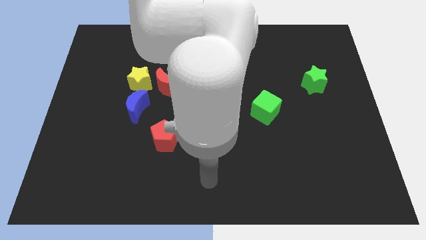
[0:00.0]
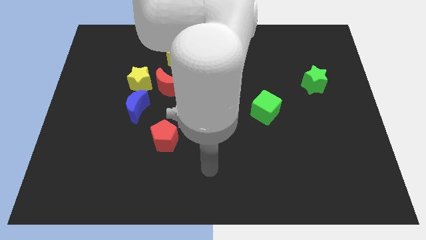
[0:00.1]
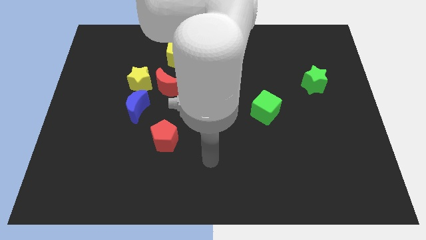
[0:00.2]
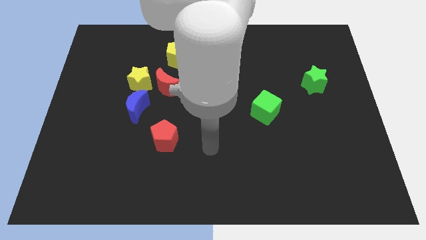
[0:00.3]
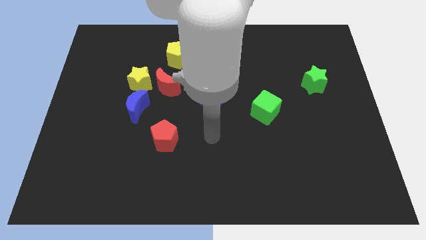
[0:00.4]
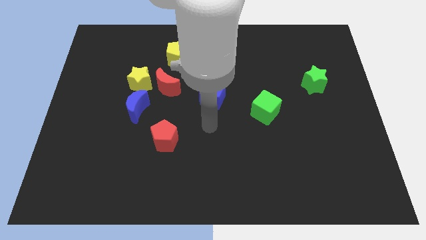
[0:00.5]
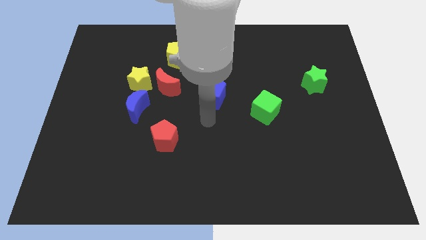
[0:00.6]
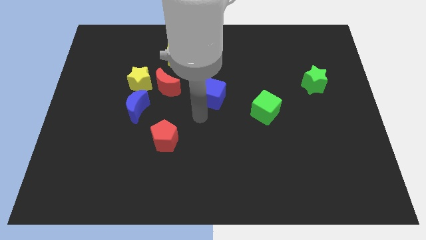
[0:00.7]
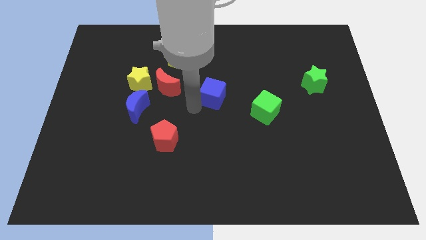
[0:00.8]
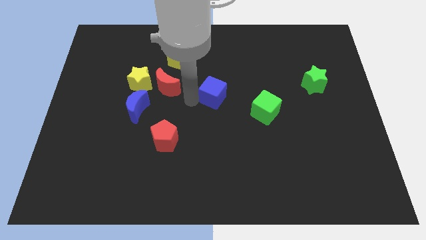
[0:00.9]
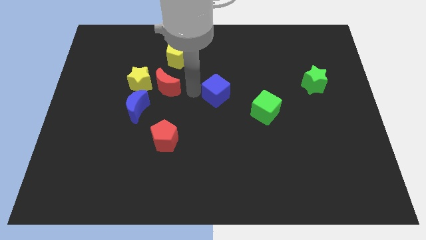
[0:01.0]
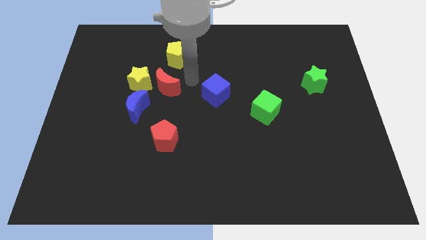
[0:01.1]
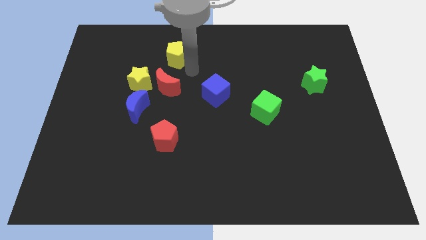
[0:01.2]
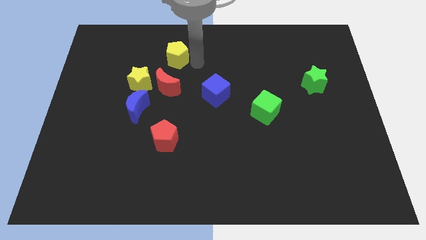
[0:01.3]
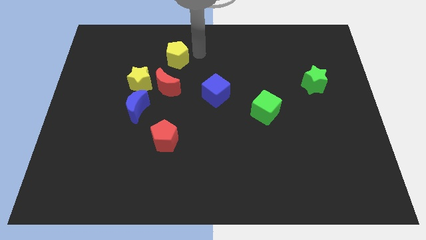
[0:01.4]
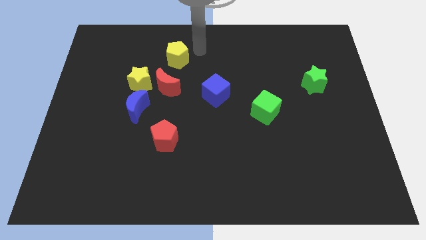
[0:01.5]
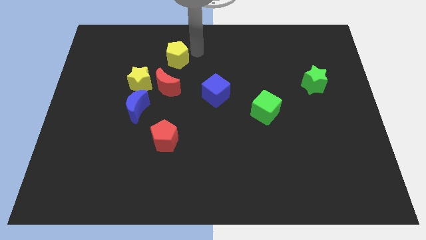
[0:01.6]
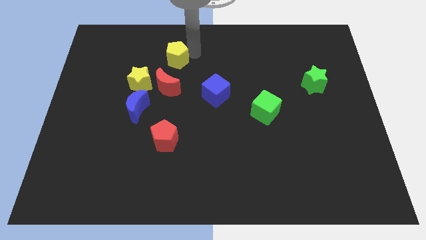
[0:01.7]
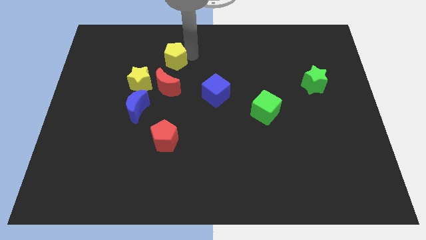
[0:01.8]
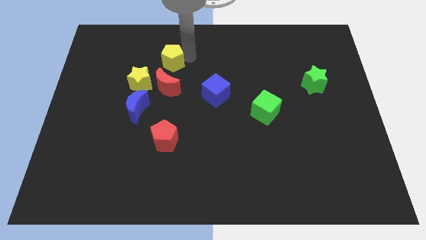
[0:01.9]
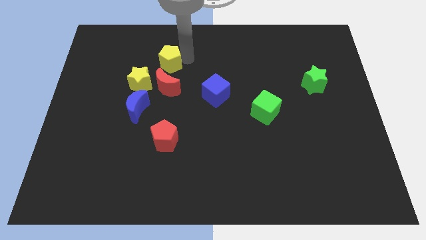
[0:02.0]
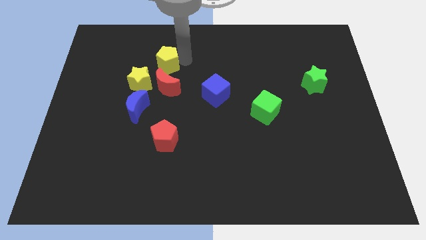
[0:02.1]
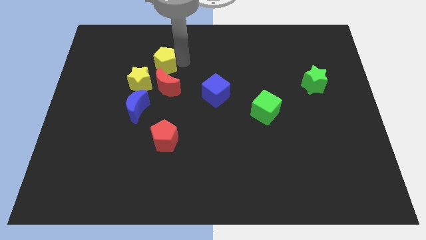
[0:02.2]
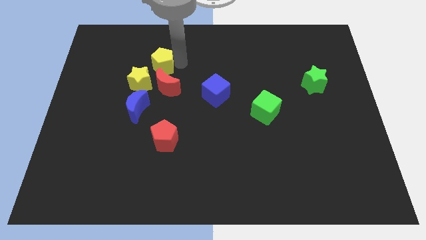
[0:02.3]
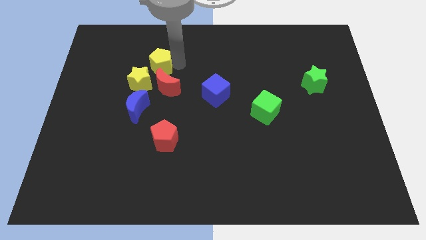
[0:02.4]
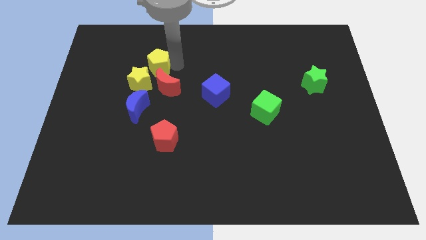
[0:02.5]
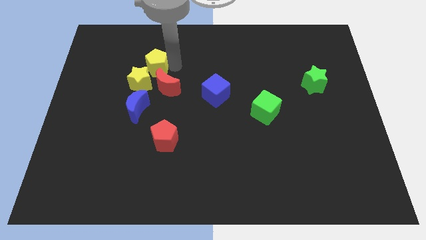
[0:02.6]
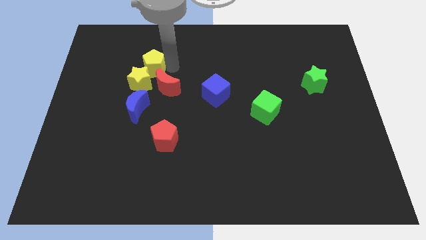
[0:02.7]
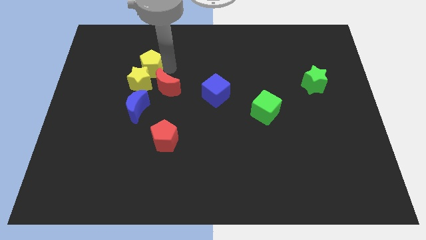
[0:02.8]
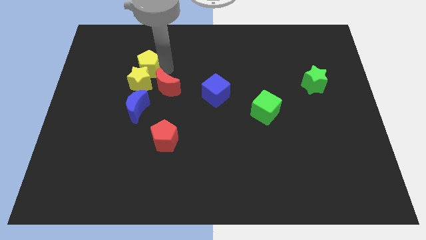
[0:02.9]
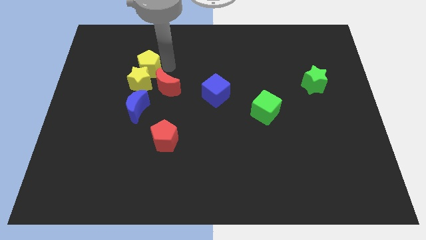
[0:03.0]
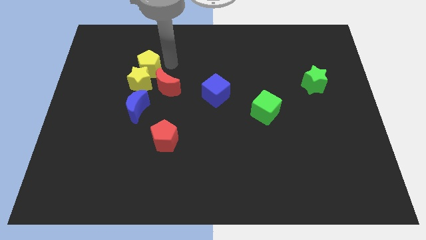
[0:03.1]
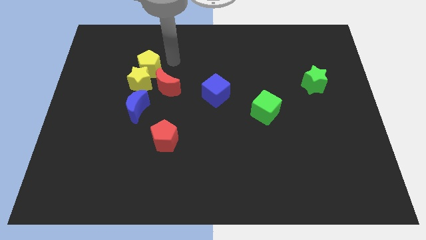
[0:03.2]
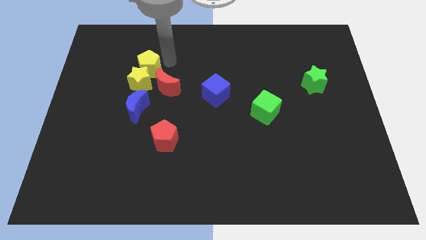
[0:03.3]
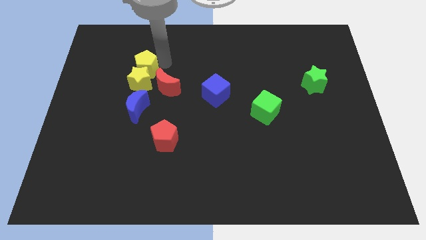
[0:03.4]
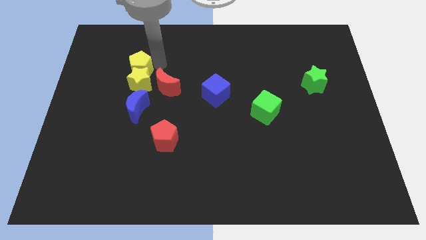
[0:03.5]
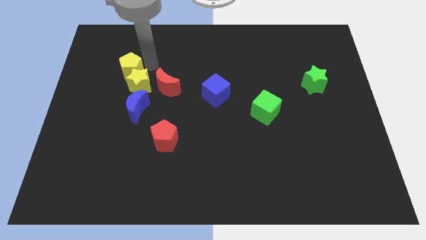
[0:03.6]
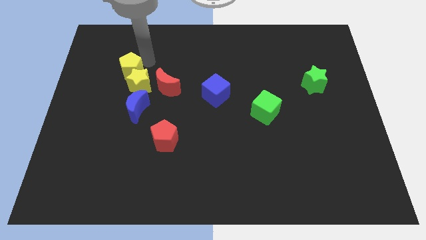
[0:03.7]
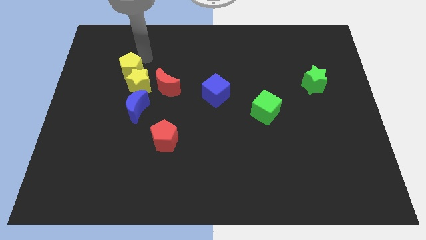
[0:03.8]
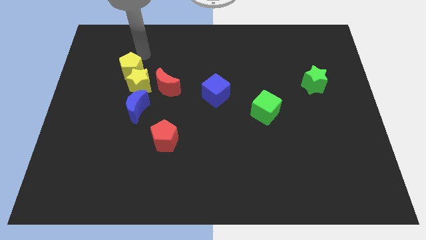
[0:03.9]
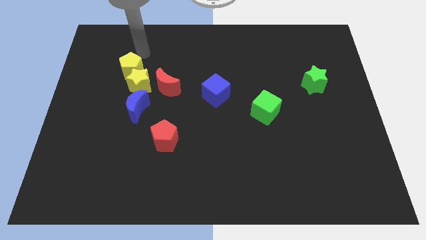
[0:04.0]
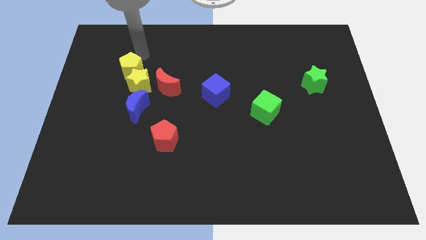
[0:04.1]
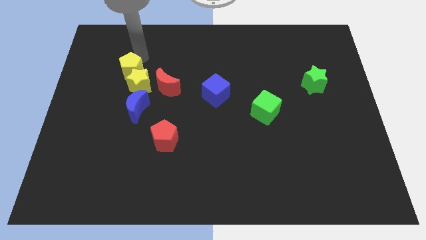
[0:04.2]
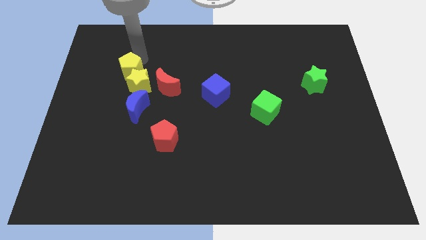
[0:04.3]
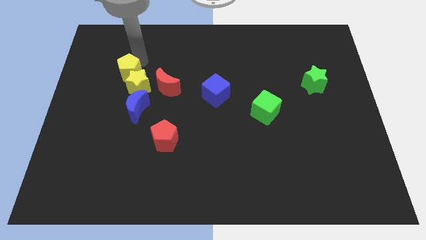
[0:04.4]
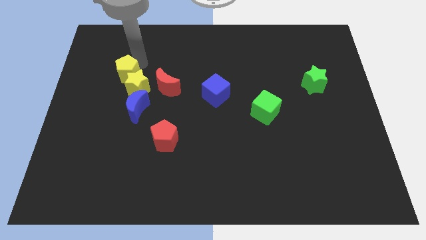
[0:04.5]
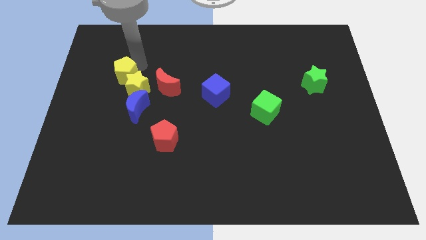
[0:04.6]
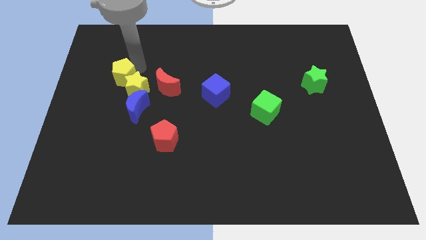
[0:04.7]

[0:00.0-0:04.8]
push the yellow pentagon to the top left side of the blue moon

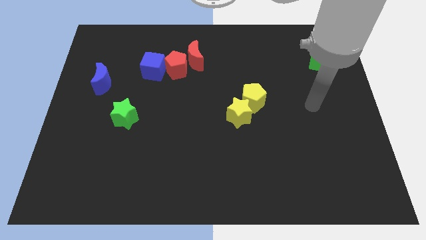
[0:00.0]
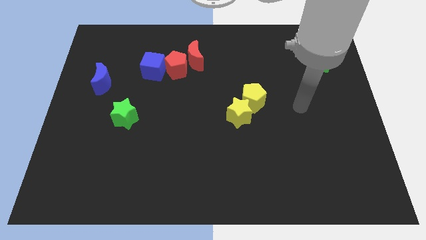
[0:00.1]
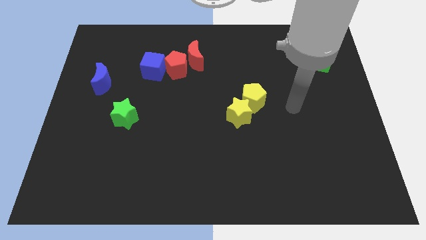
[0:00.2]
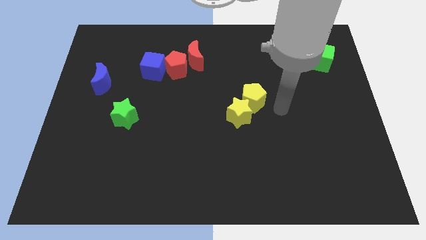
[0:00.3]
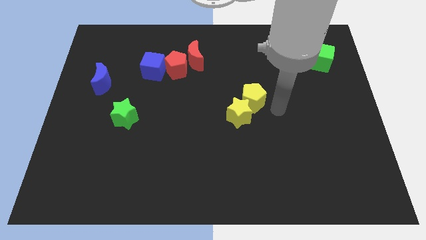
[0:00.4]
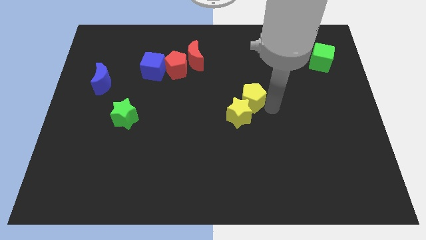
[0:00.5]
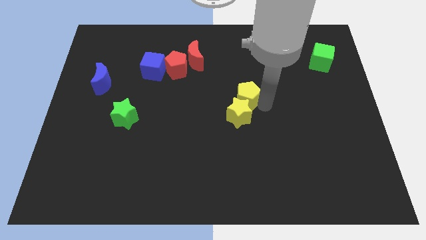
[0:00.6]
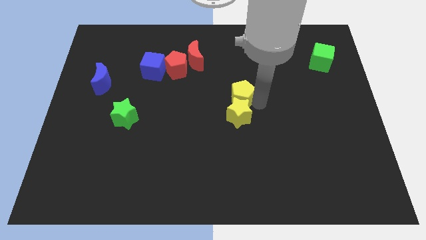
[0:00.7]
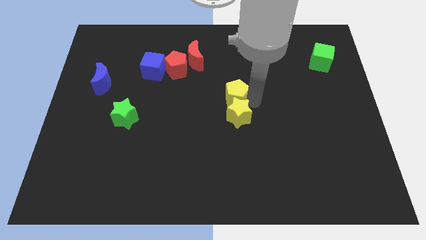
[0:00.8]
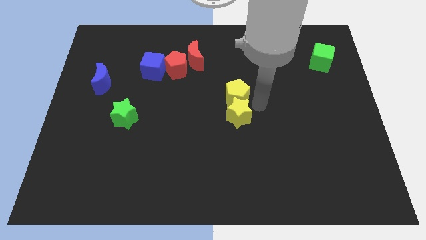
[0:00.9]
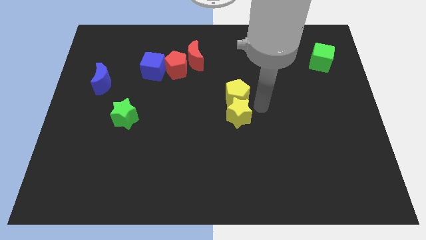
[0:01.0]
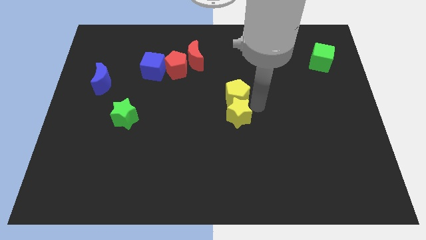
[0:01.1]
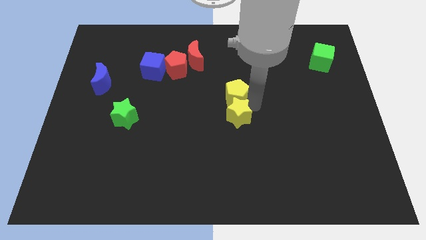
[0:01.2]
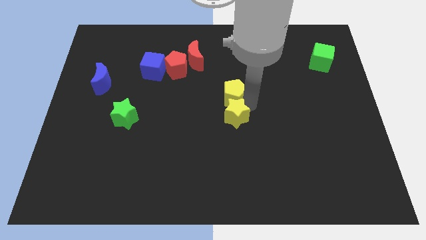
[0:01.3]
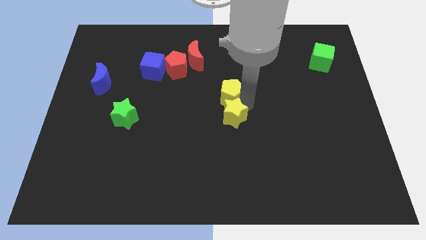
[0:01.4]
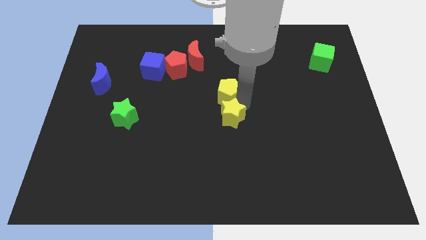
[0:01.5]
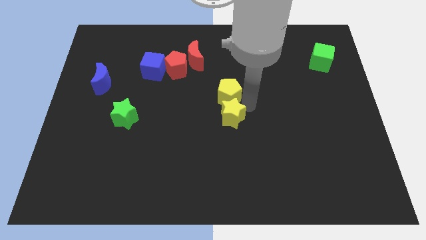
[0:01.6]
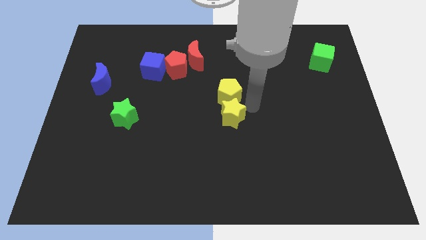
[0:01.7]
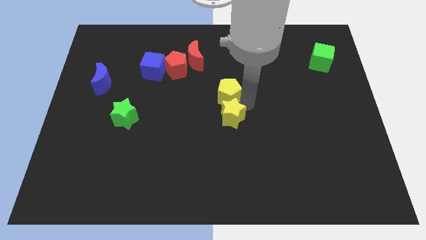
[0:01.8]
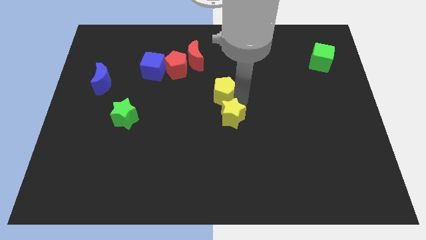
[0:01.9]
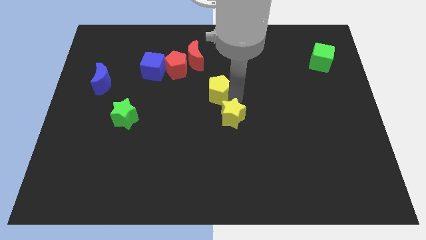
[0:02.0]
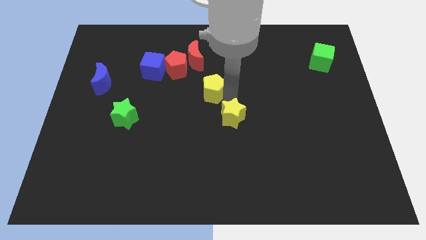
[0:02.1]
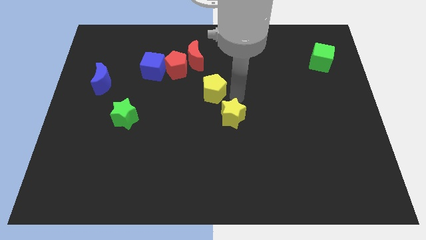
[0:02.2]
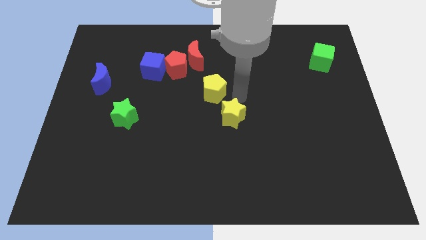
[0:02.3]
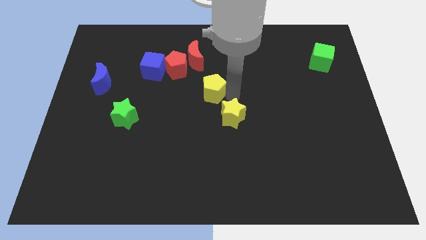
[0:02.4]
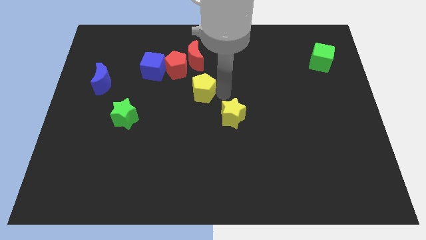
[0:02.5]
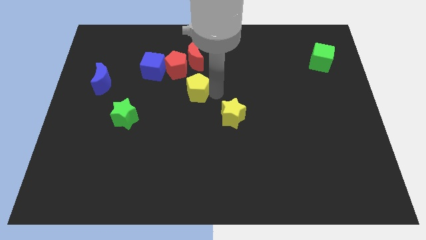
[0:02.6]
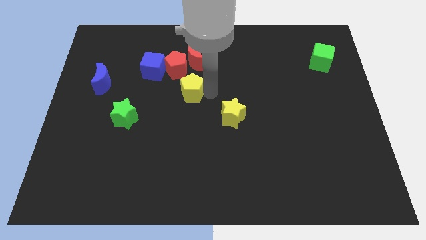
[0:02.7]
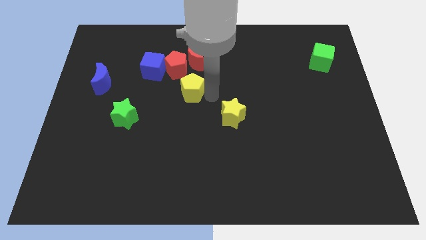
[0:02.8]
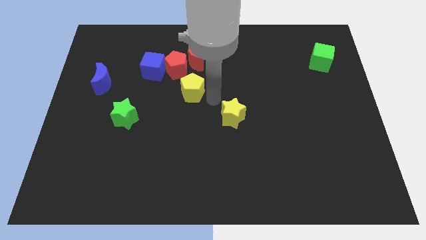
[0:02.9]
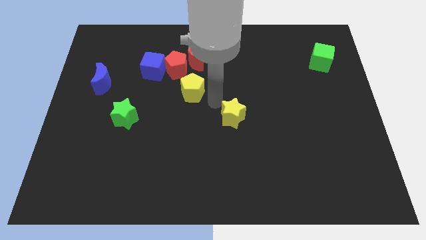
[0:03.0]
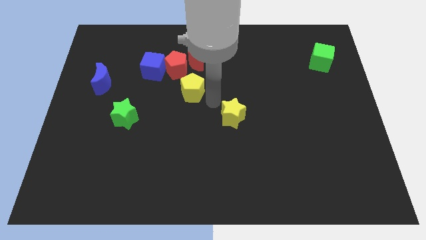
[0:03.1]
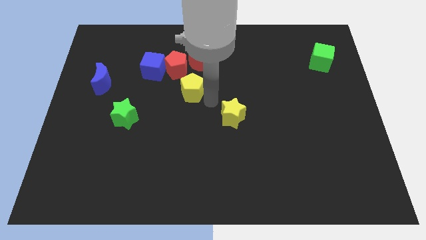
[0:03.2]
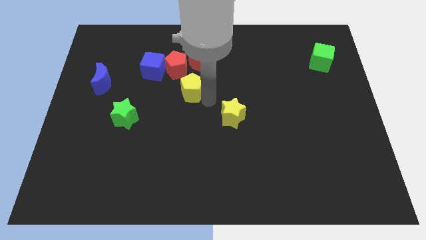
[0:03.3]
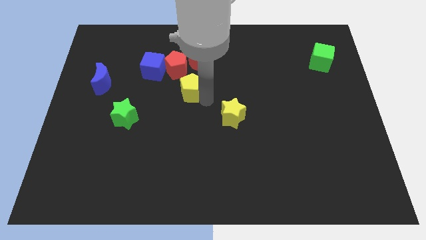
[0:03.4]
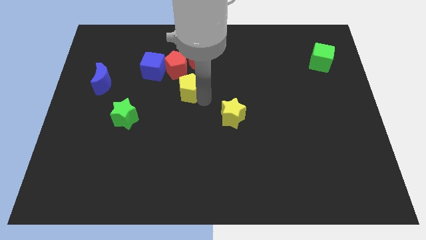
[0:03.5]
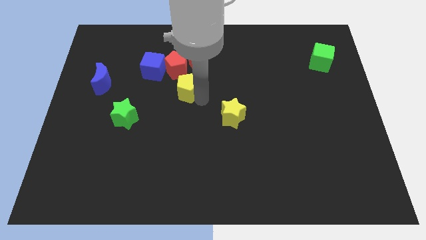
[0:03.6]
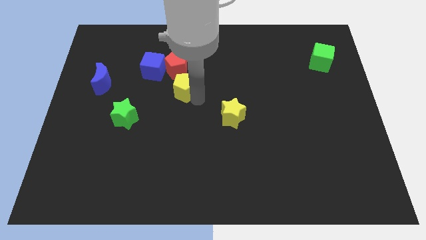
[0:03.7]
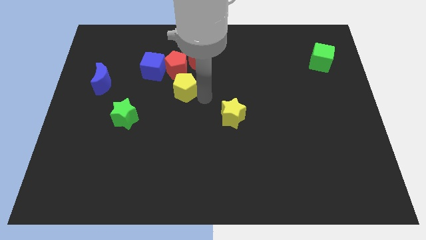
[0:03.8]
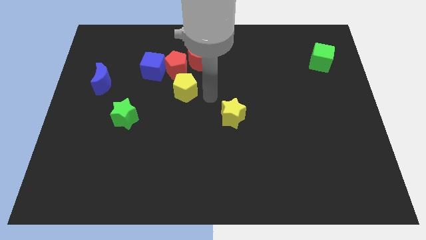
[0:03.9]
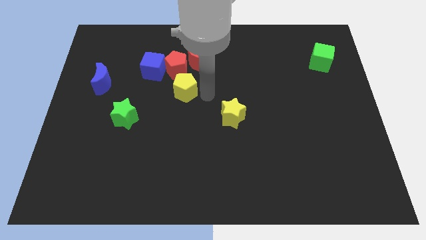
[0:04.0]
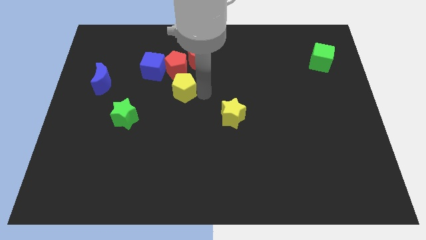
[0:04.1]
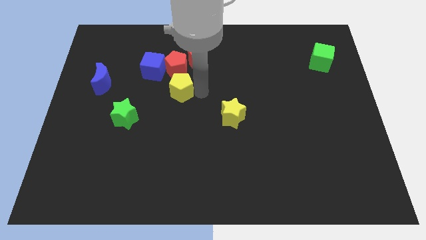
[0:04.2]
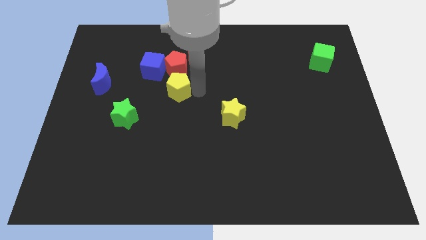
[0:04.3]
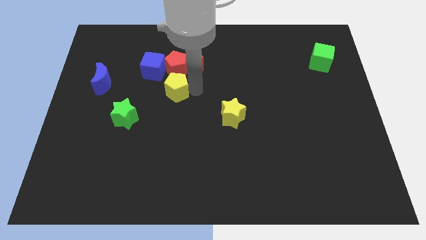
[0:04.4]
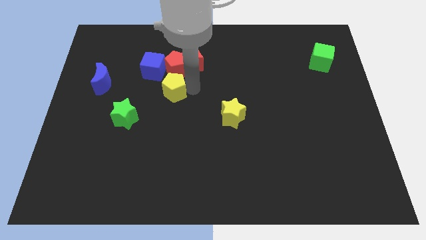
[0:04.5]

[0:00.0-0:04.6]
move the yellow pentagon diagonally down and to the left of the red pentagon
